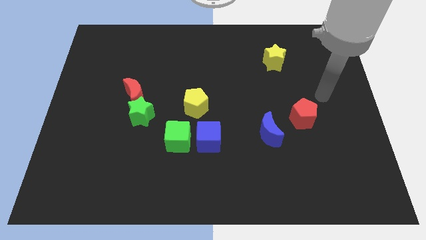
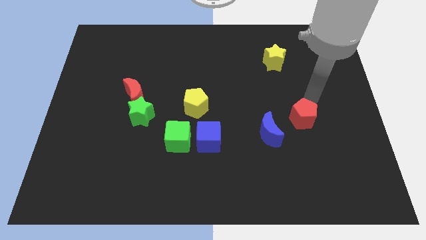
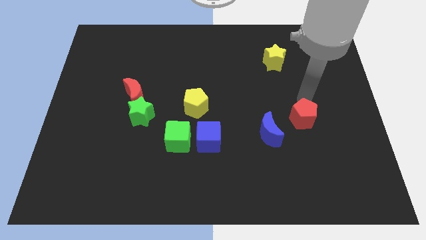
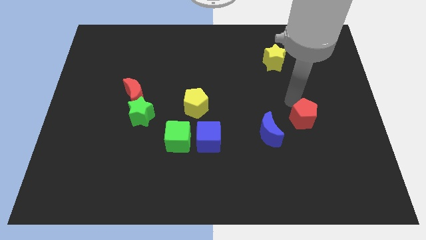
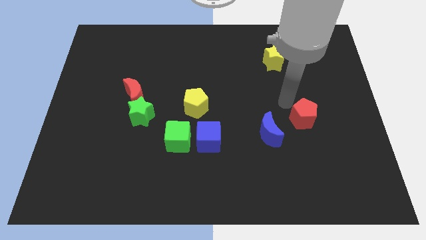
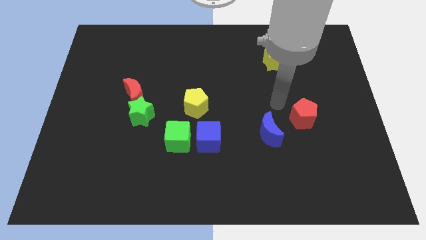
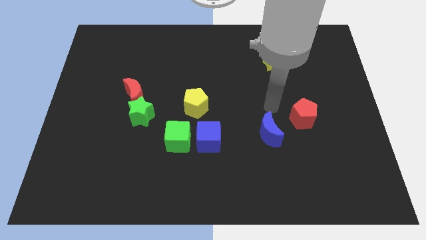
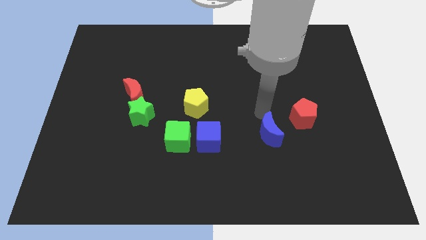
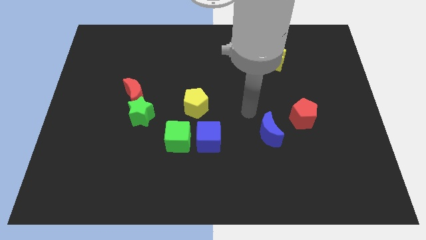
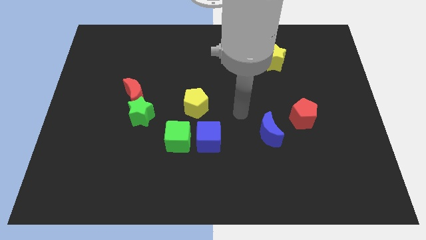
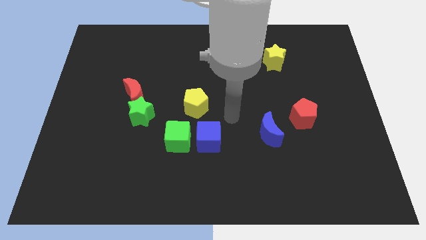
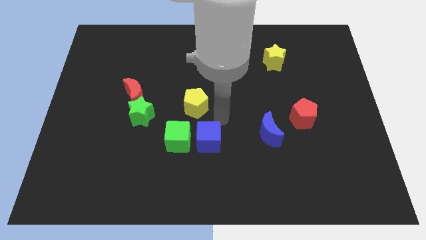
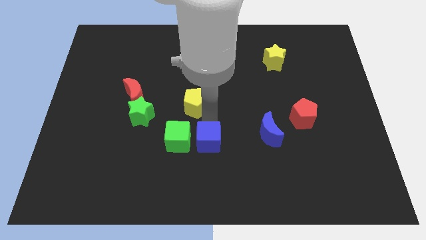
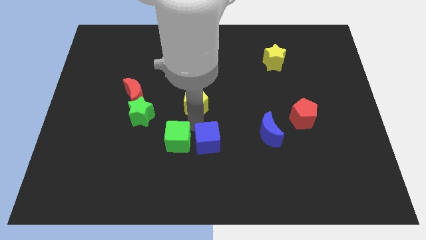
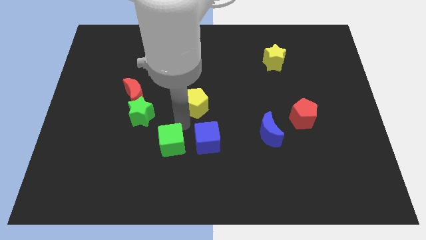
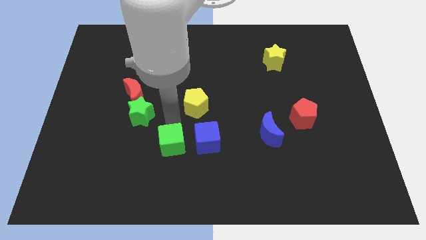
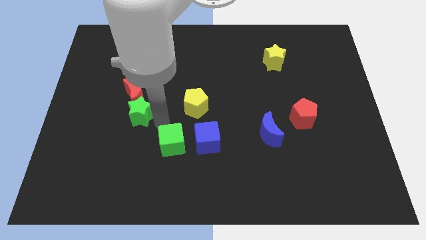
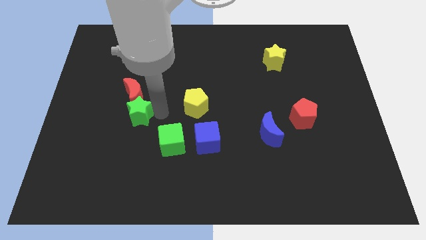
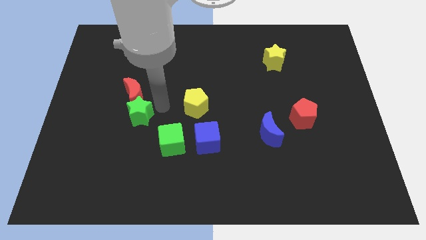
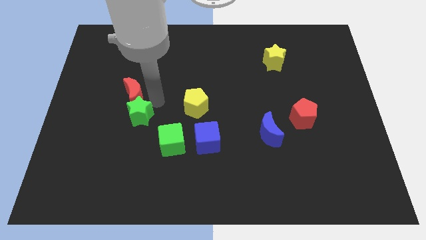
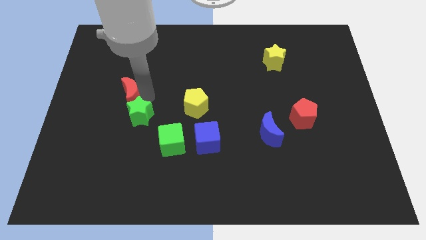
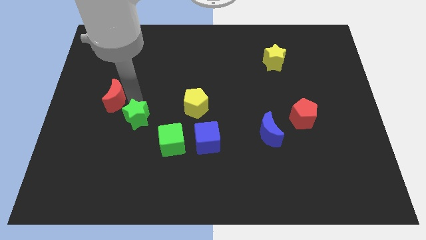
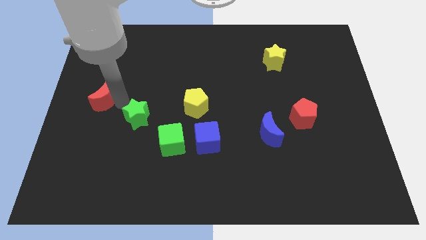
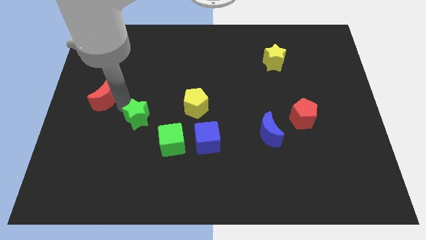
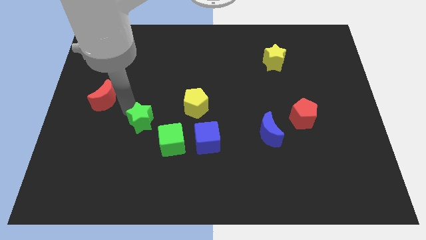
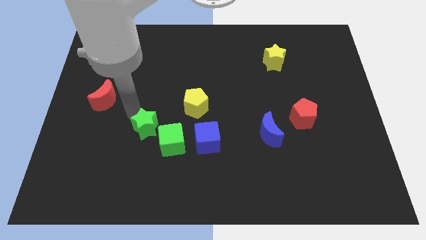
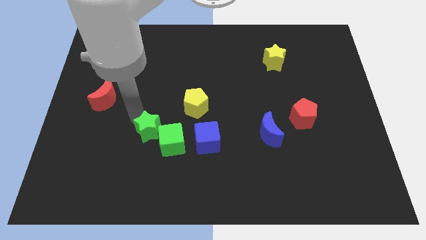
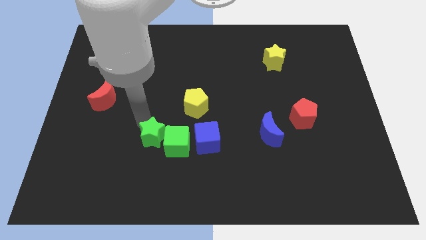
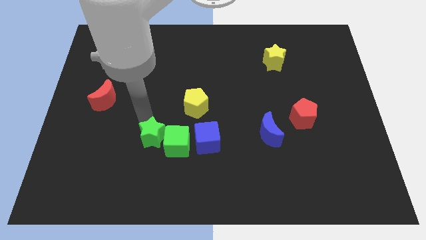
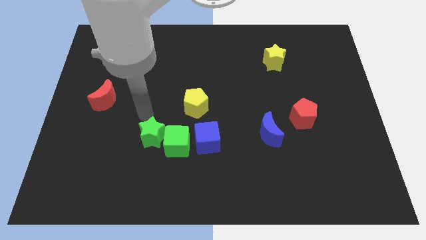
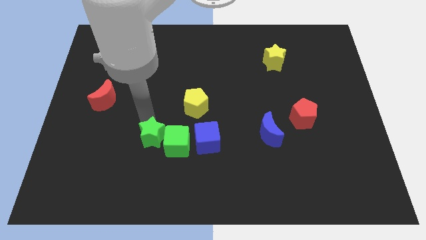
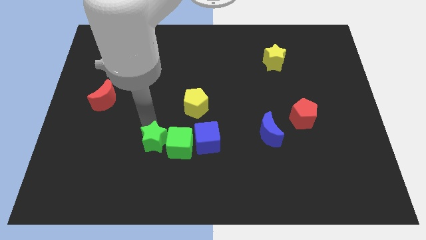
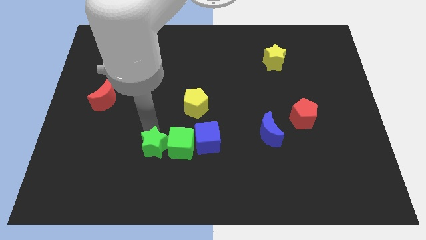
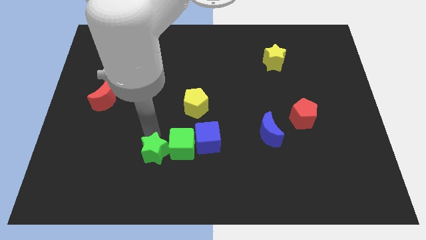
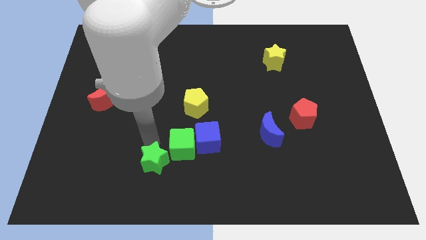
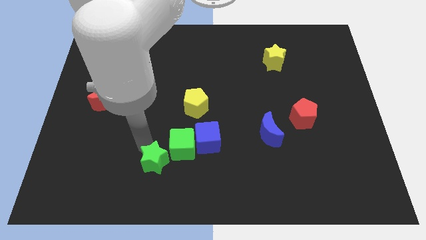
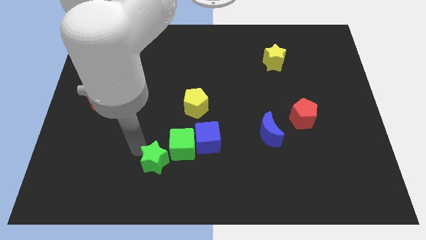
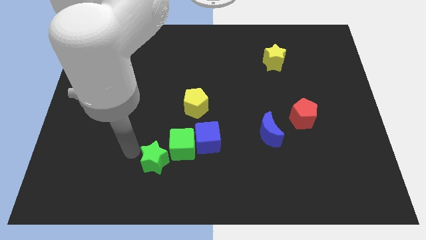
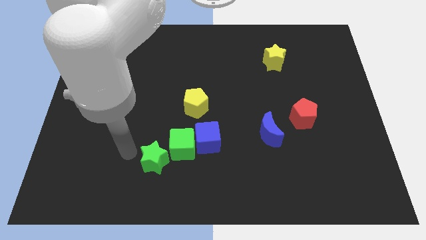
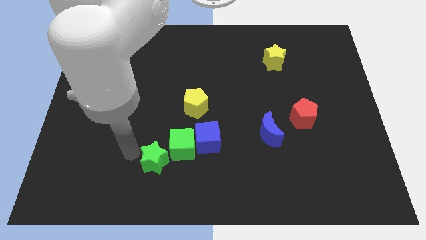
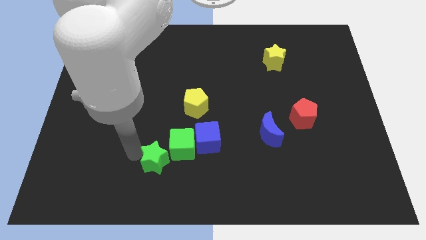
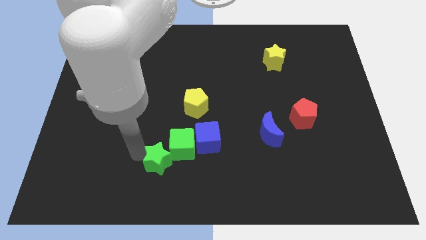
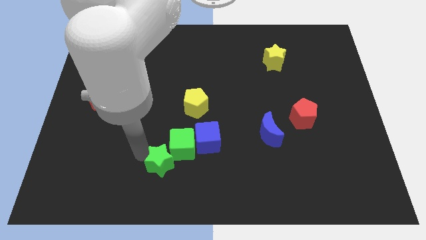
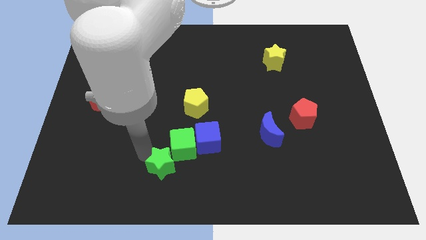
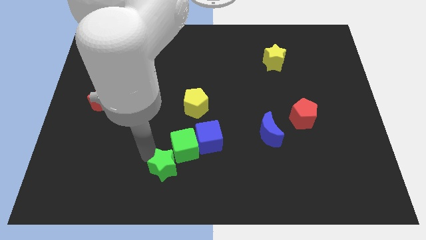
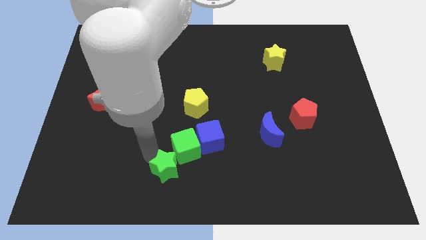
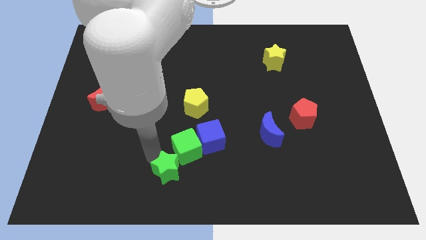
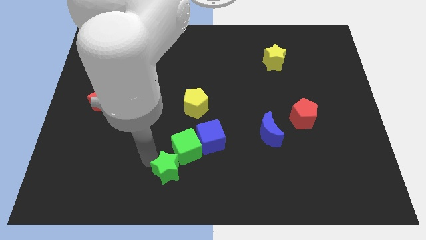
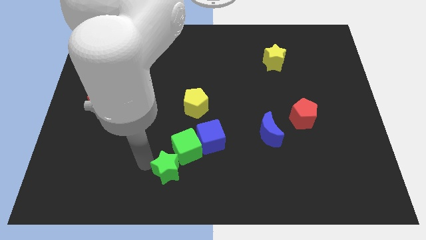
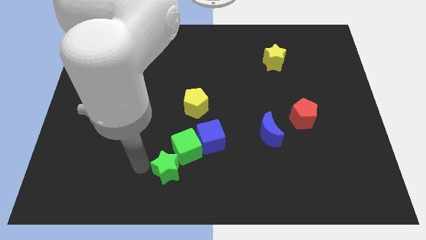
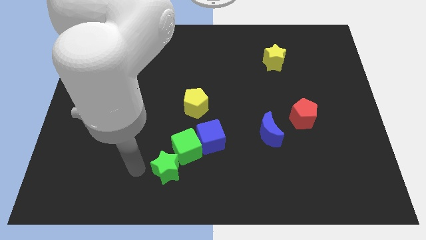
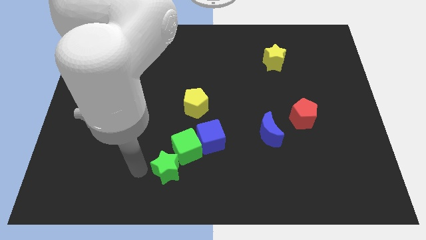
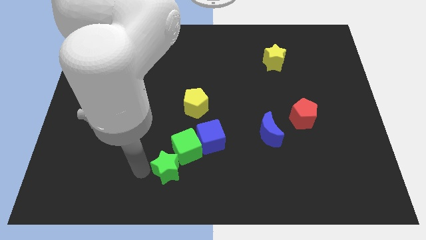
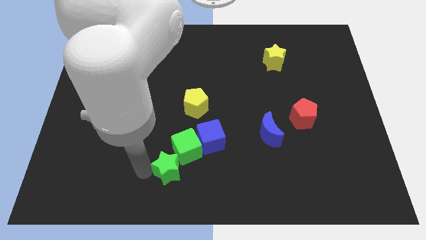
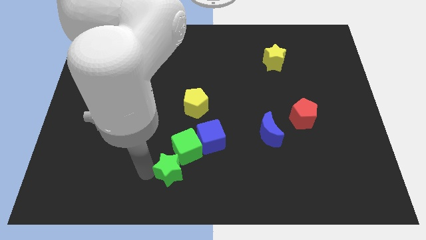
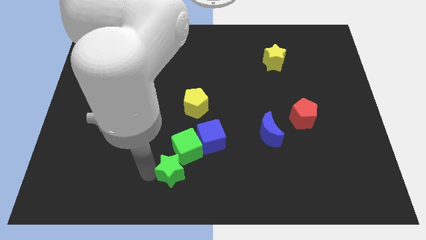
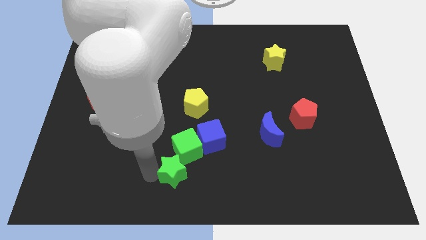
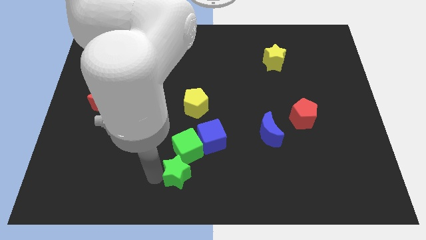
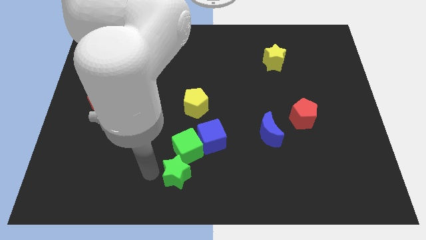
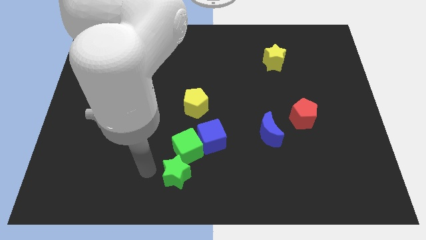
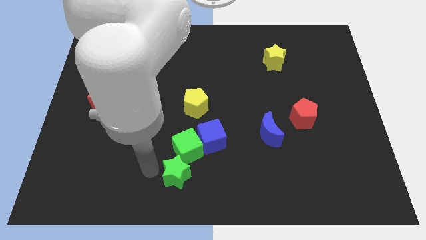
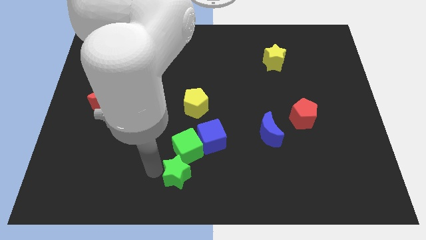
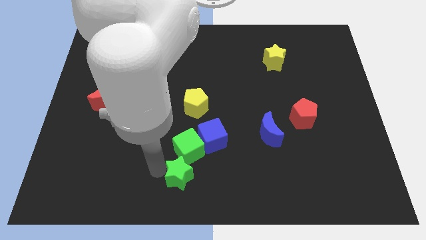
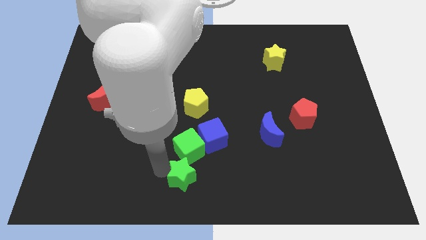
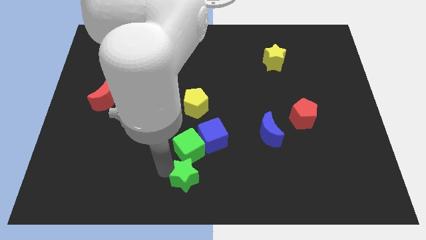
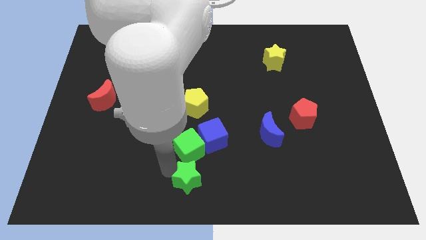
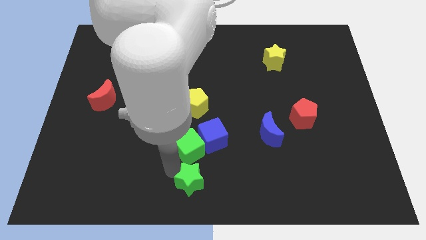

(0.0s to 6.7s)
slide the green star to the bottom of the blue cube

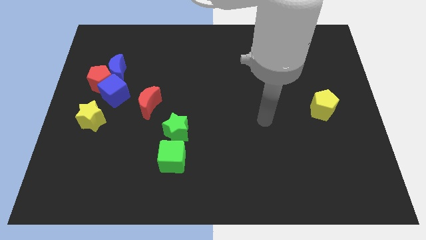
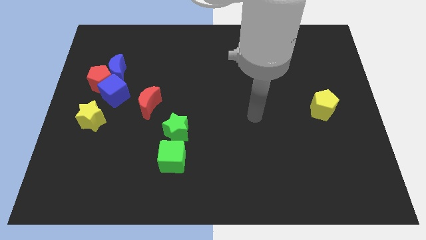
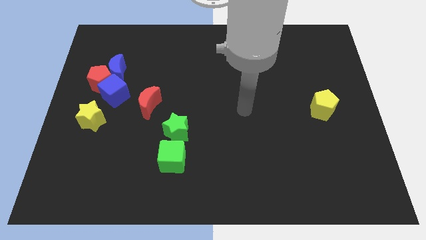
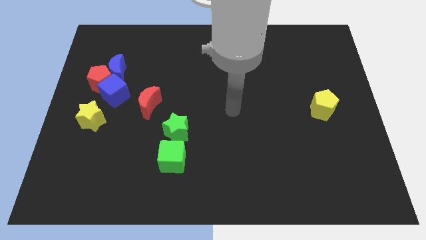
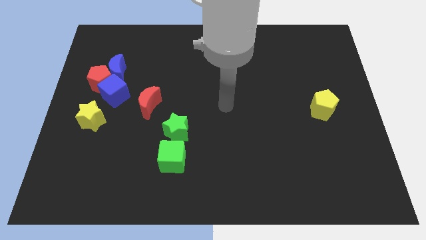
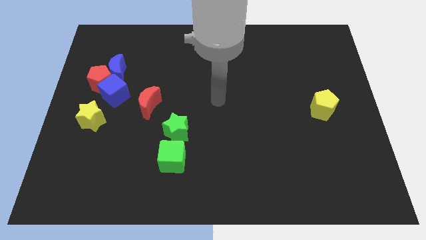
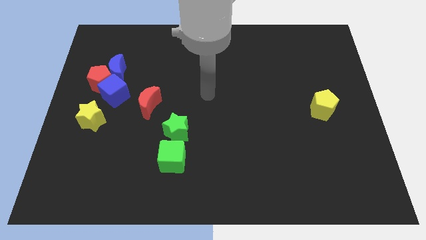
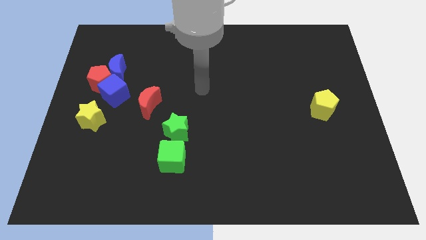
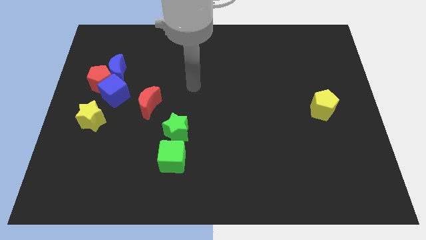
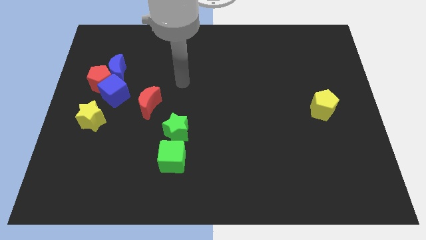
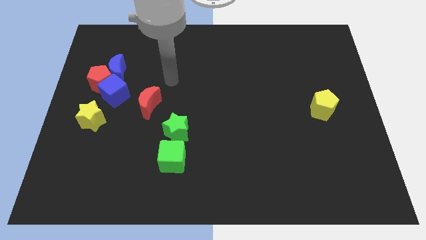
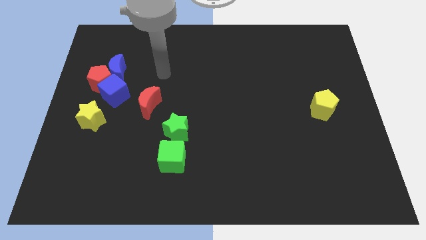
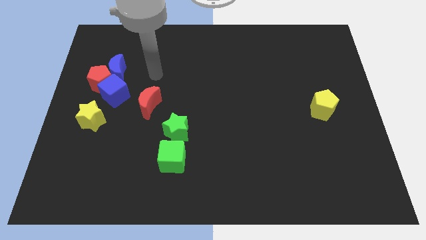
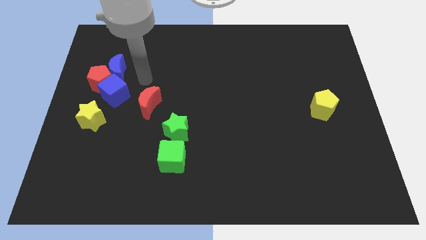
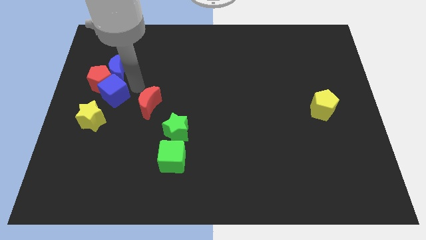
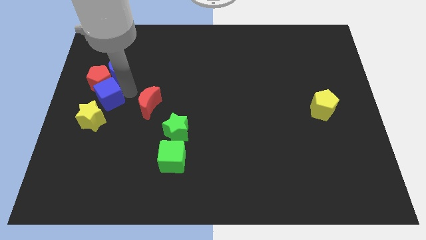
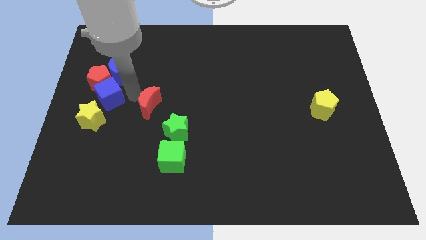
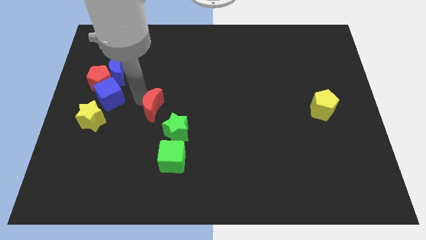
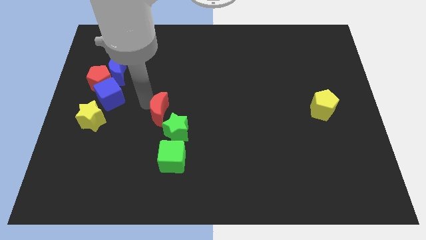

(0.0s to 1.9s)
put the red moon to the top of the green cube
